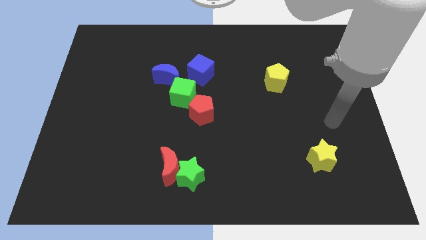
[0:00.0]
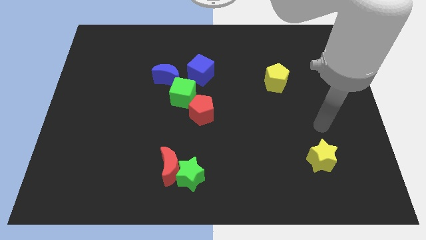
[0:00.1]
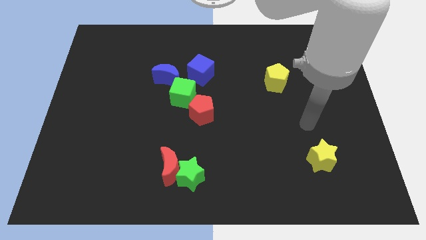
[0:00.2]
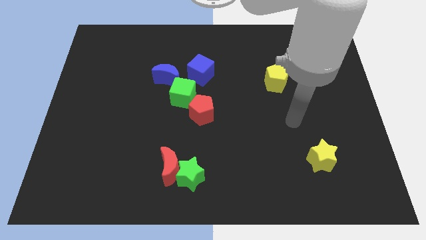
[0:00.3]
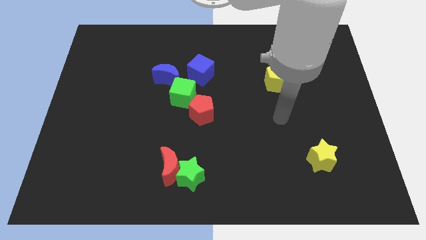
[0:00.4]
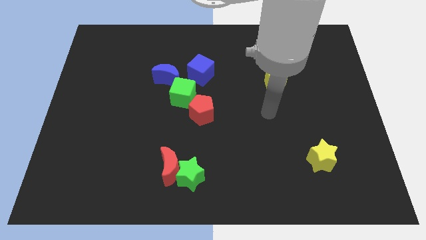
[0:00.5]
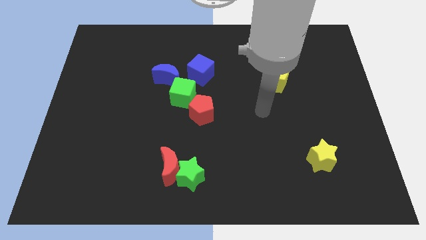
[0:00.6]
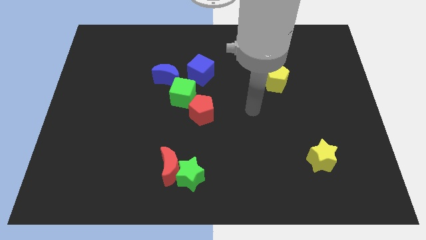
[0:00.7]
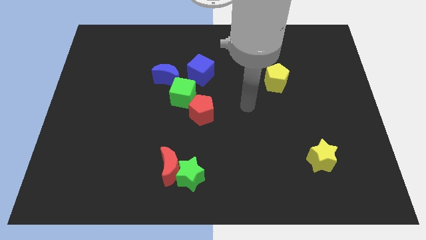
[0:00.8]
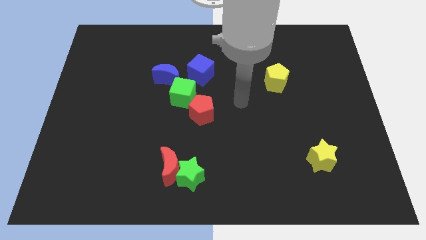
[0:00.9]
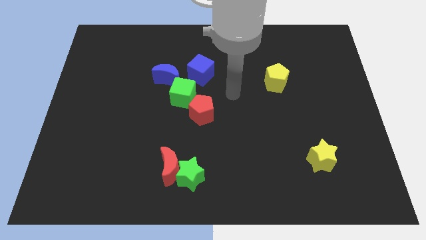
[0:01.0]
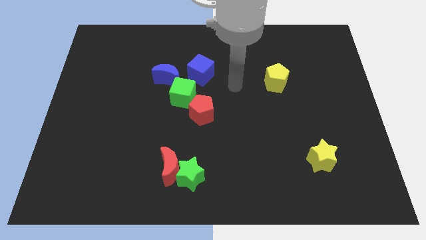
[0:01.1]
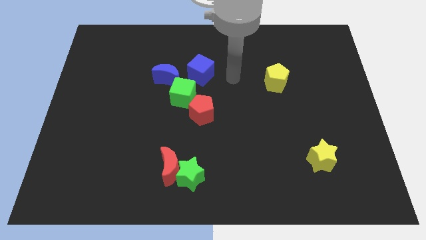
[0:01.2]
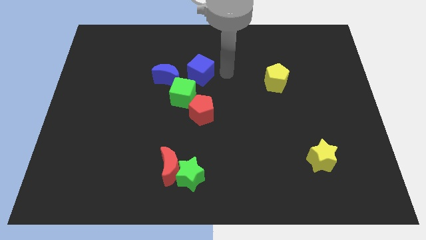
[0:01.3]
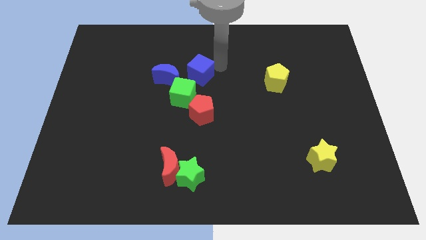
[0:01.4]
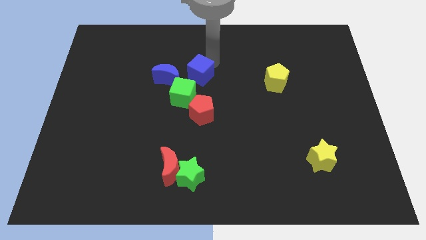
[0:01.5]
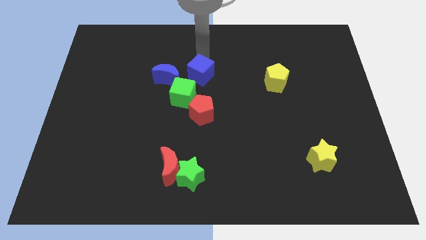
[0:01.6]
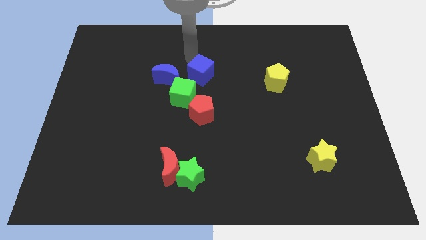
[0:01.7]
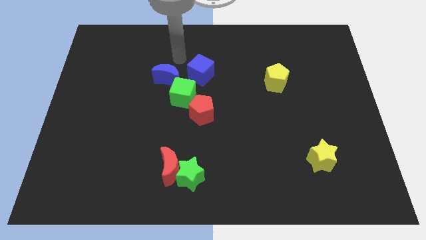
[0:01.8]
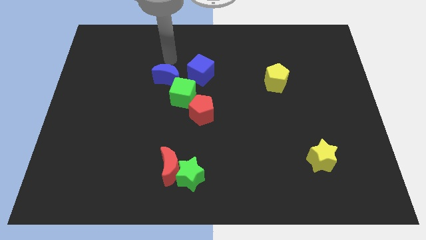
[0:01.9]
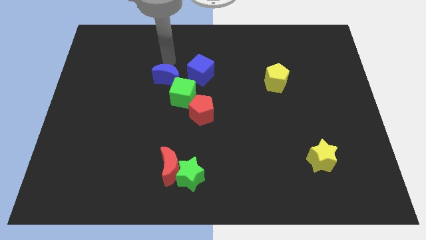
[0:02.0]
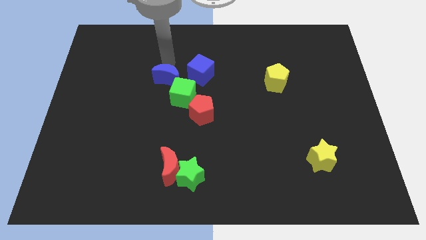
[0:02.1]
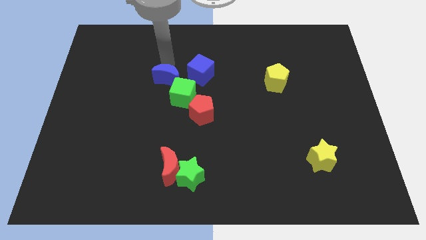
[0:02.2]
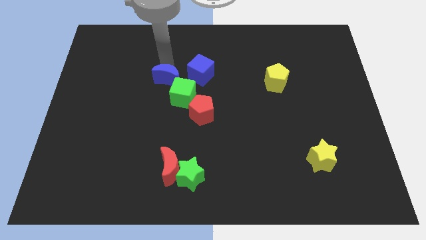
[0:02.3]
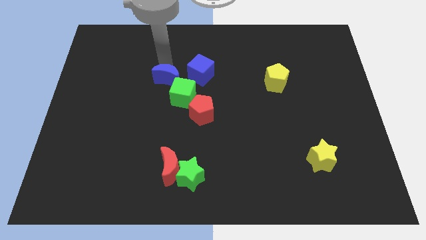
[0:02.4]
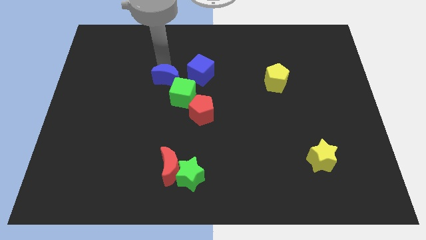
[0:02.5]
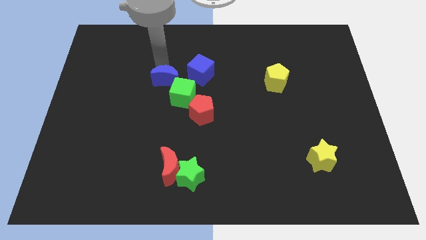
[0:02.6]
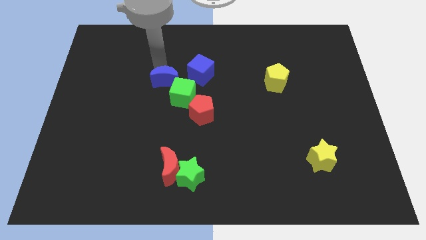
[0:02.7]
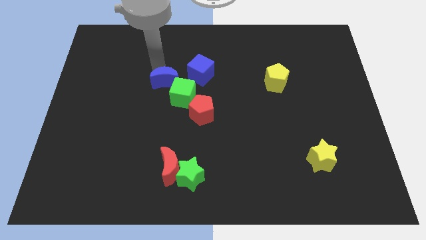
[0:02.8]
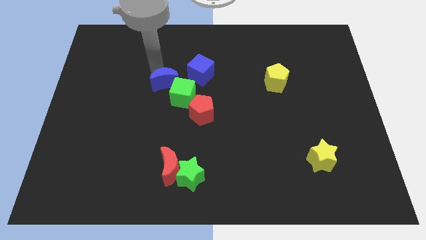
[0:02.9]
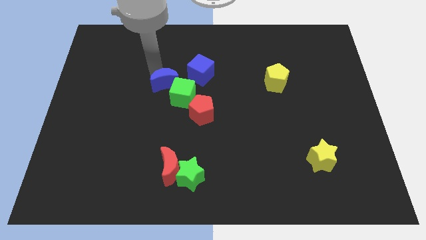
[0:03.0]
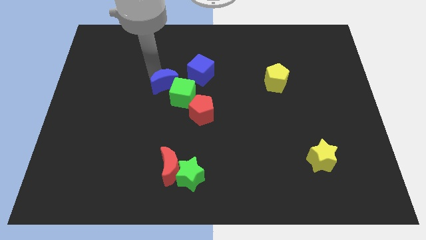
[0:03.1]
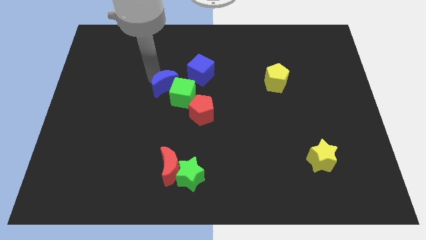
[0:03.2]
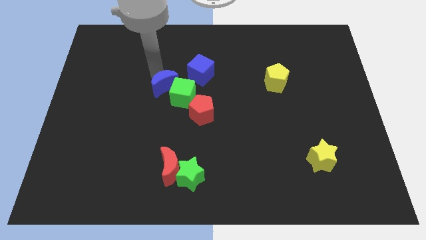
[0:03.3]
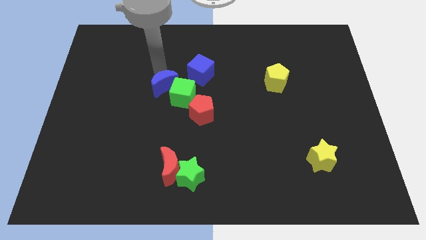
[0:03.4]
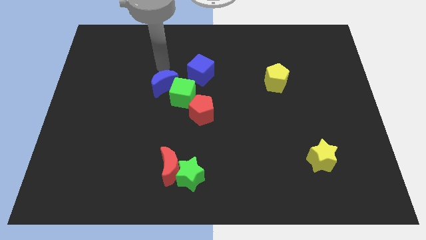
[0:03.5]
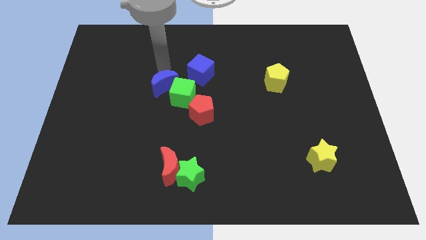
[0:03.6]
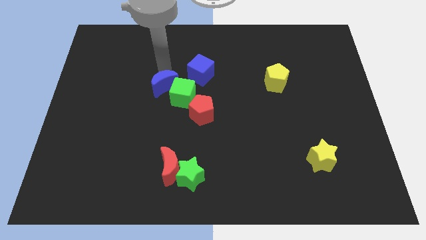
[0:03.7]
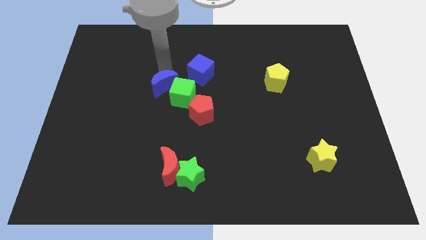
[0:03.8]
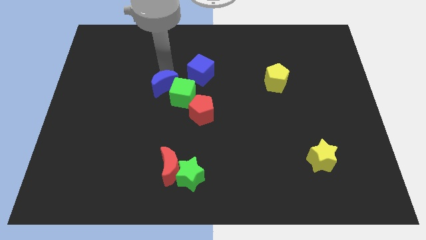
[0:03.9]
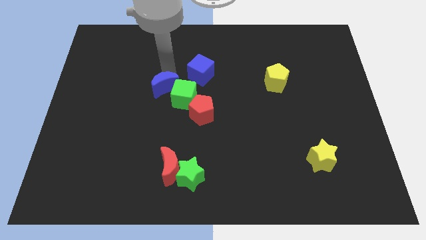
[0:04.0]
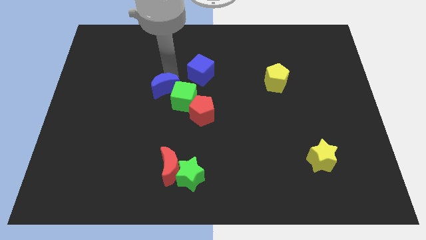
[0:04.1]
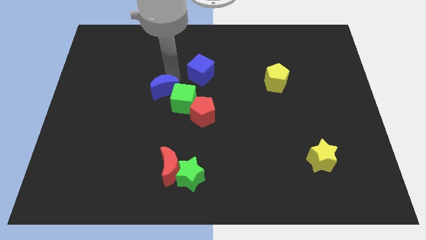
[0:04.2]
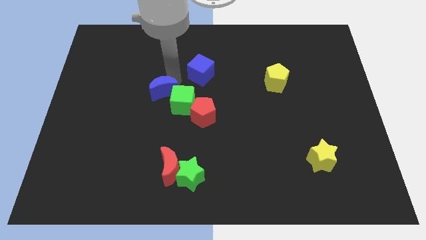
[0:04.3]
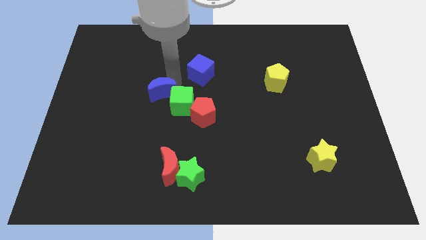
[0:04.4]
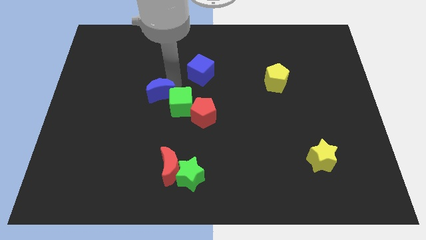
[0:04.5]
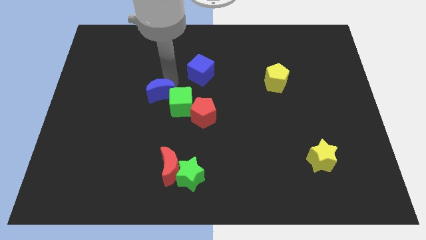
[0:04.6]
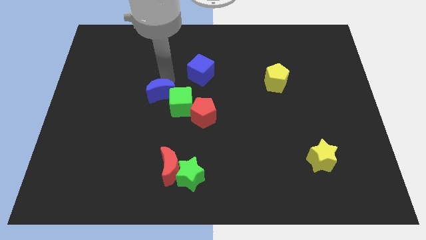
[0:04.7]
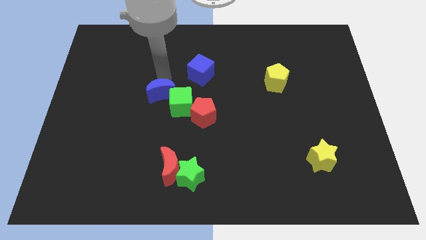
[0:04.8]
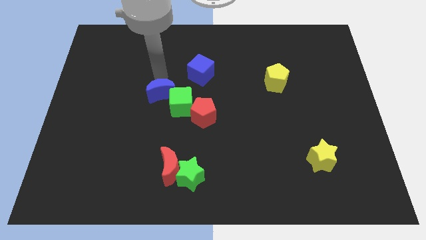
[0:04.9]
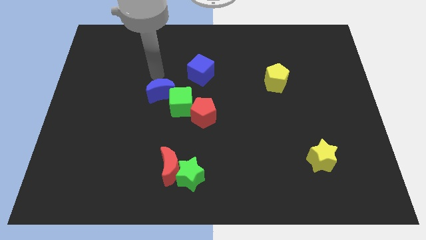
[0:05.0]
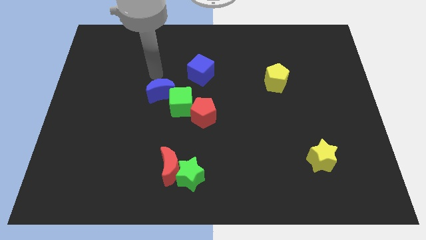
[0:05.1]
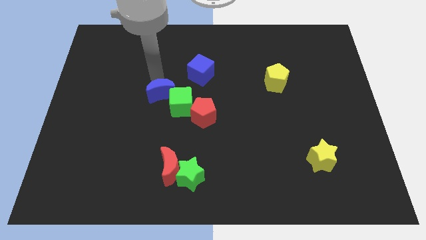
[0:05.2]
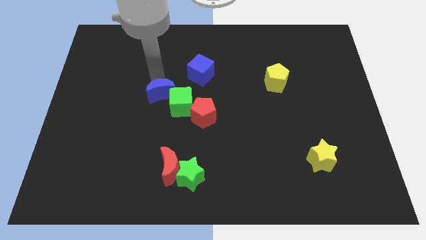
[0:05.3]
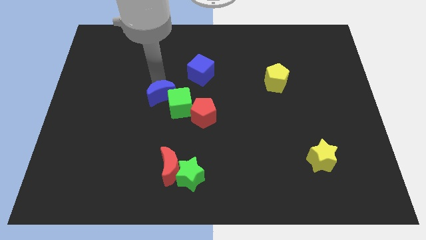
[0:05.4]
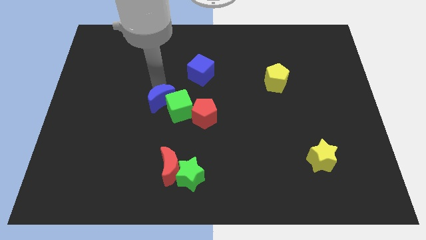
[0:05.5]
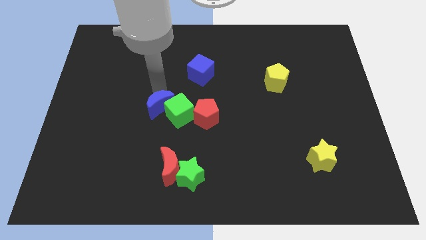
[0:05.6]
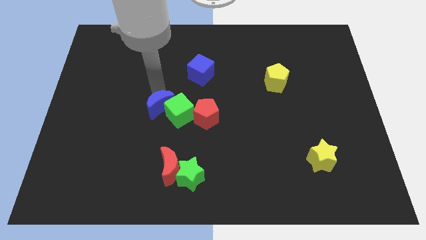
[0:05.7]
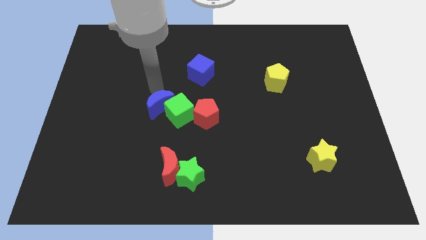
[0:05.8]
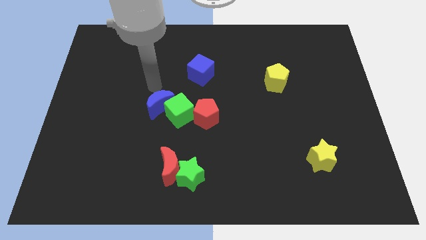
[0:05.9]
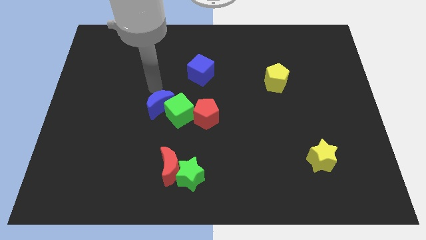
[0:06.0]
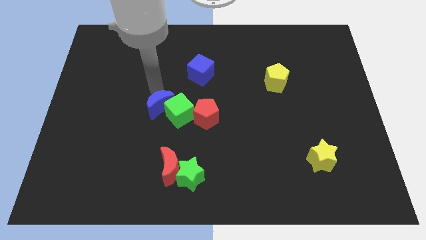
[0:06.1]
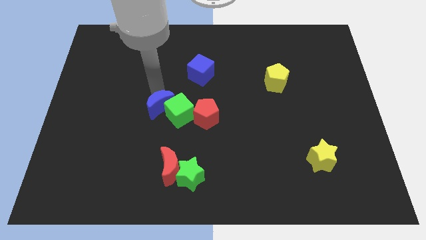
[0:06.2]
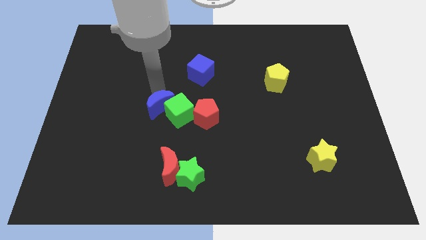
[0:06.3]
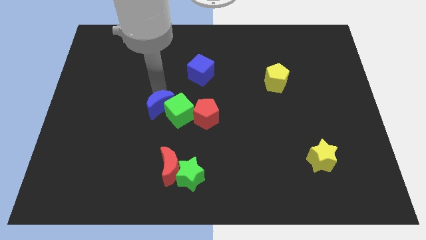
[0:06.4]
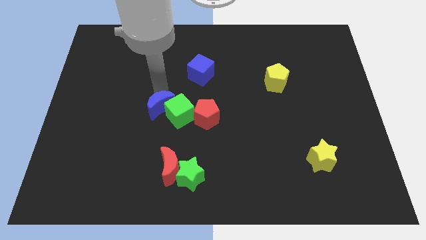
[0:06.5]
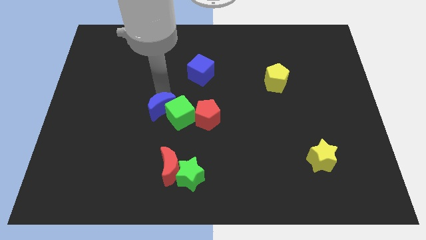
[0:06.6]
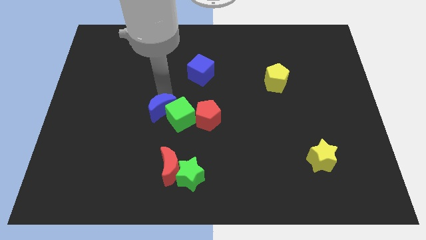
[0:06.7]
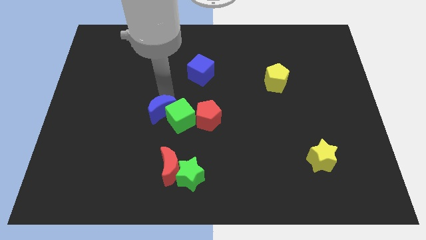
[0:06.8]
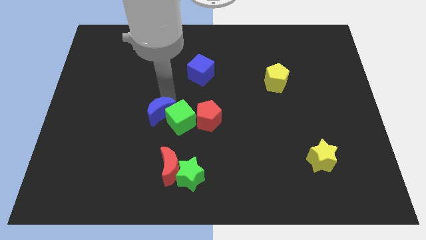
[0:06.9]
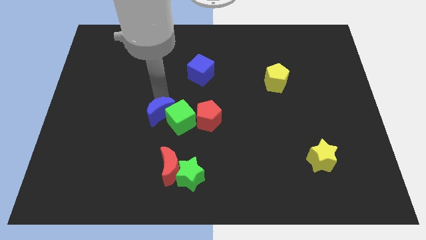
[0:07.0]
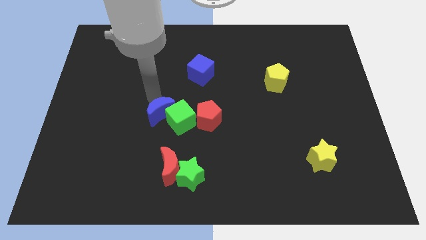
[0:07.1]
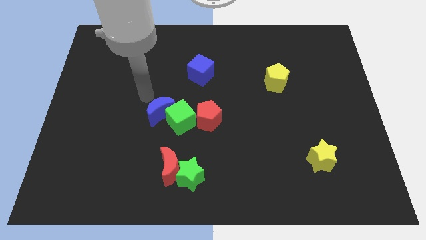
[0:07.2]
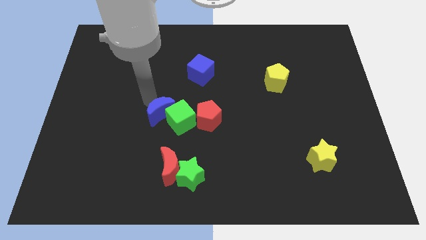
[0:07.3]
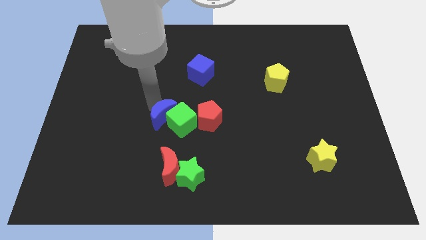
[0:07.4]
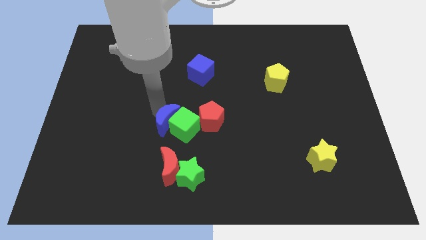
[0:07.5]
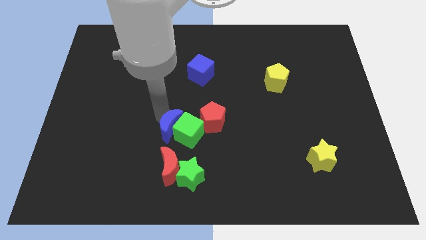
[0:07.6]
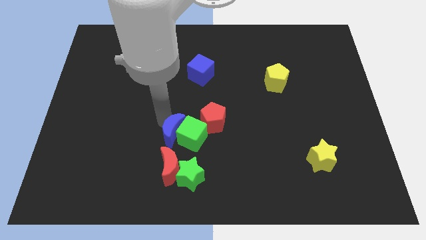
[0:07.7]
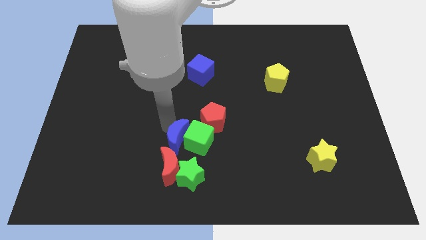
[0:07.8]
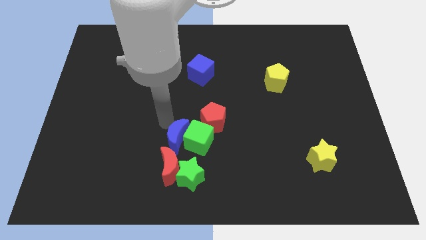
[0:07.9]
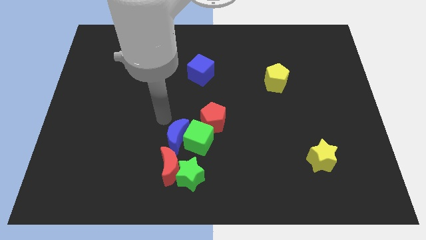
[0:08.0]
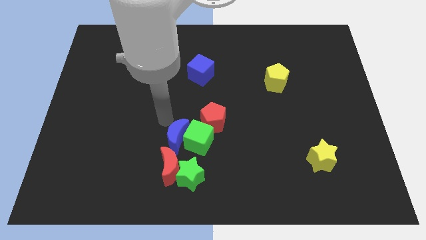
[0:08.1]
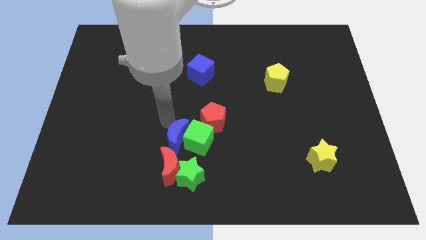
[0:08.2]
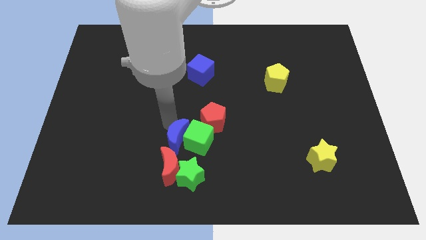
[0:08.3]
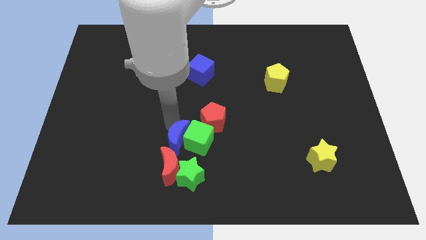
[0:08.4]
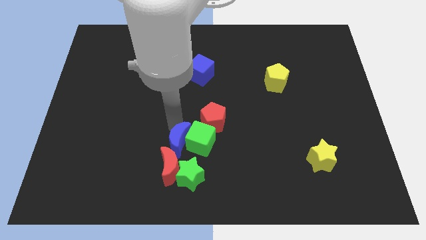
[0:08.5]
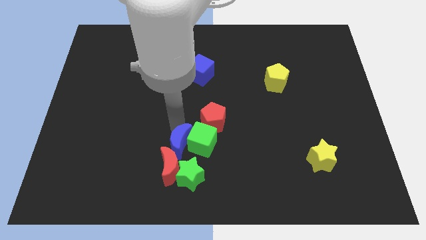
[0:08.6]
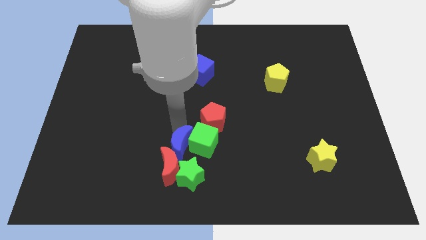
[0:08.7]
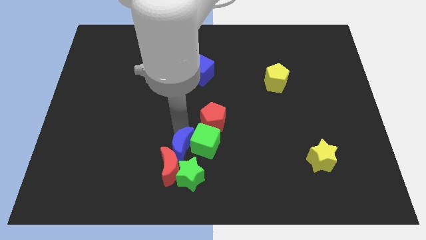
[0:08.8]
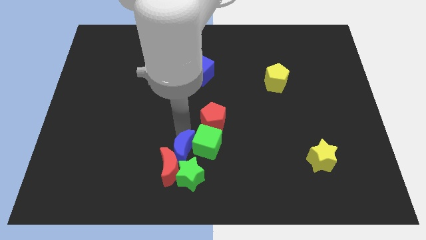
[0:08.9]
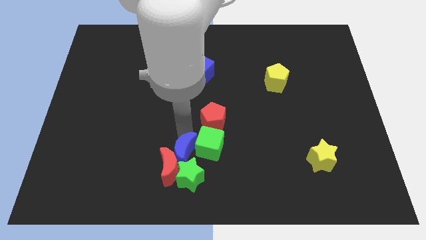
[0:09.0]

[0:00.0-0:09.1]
put the blue moon next to the green star
